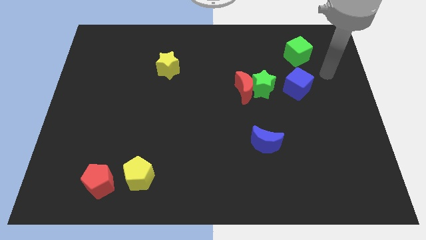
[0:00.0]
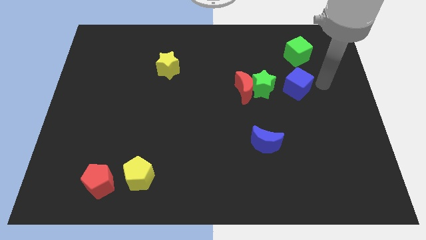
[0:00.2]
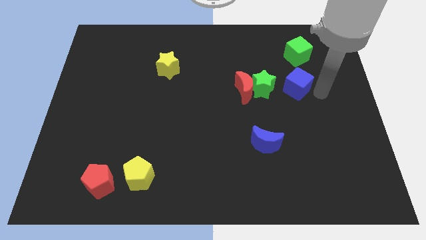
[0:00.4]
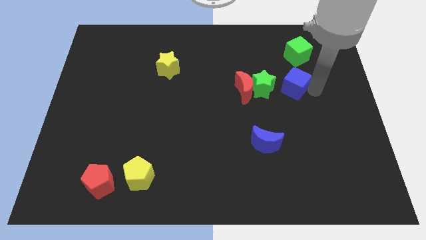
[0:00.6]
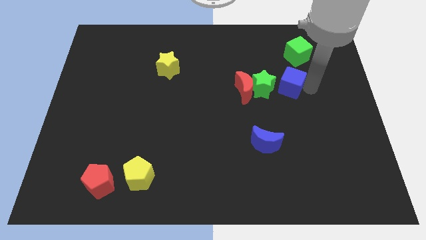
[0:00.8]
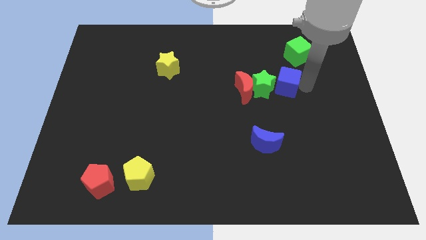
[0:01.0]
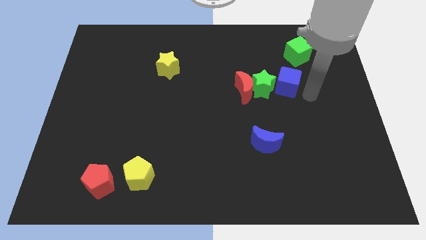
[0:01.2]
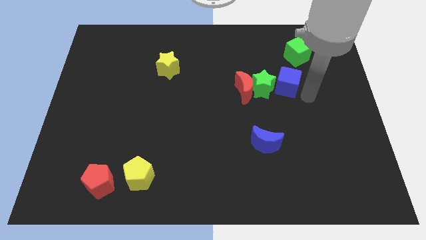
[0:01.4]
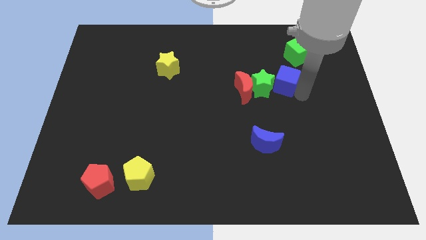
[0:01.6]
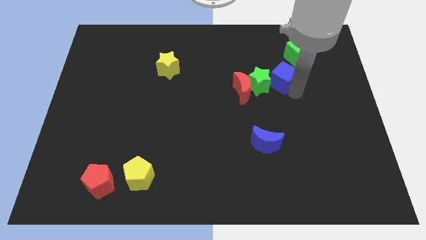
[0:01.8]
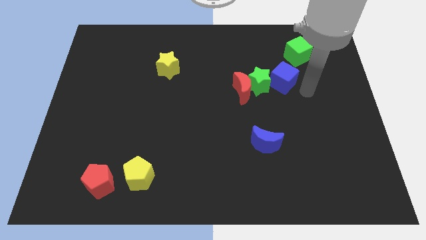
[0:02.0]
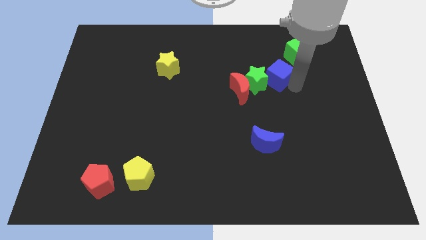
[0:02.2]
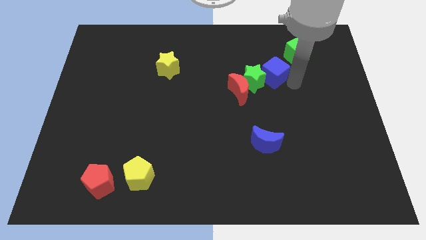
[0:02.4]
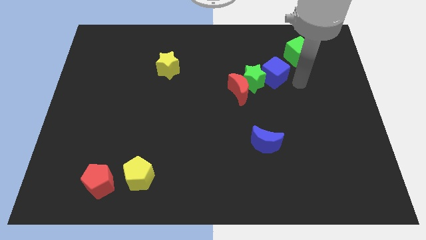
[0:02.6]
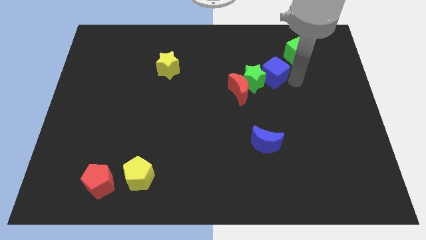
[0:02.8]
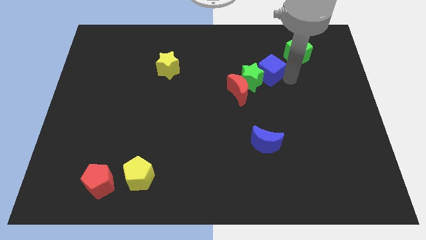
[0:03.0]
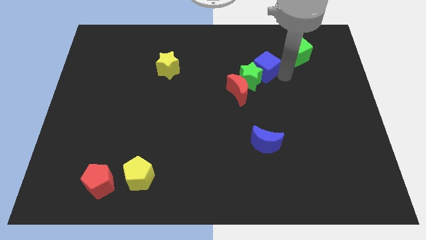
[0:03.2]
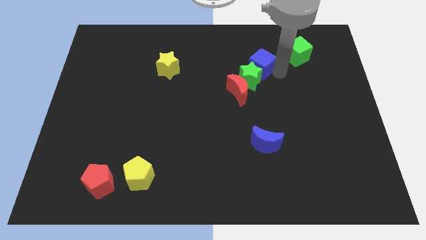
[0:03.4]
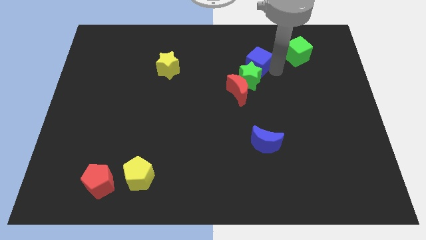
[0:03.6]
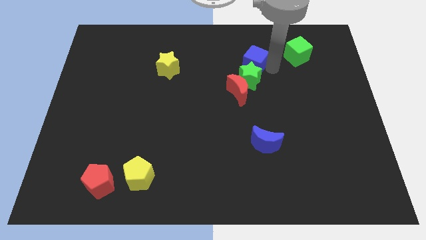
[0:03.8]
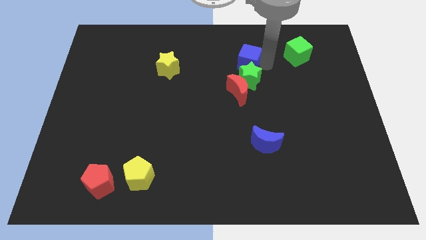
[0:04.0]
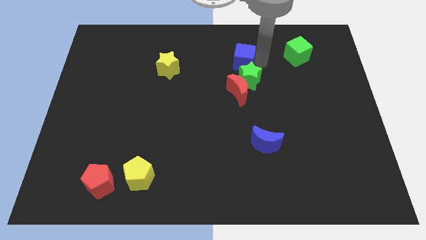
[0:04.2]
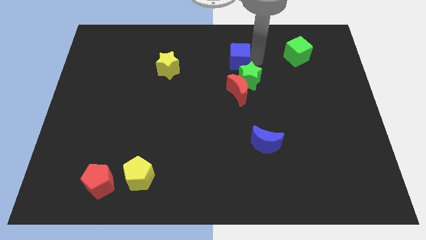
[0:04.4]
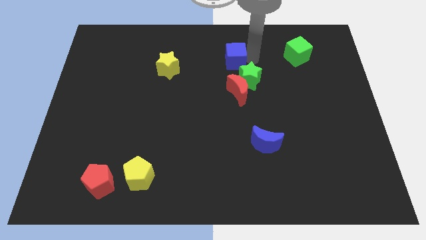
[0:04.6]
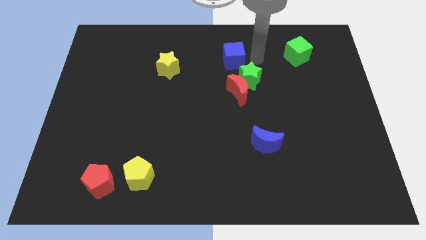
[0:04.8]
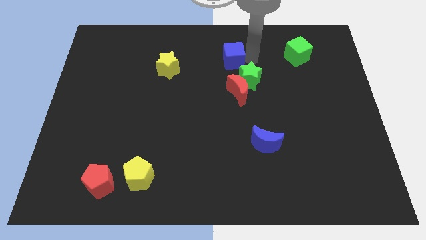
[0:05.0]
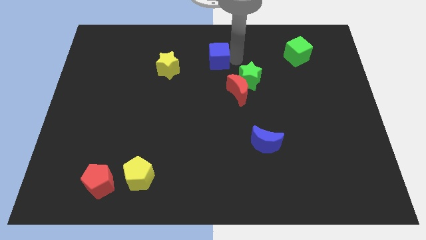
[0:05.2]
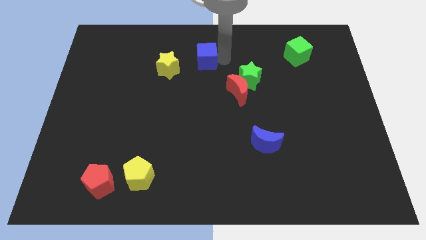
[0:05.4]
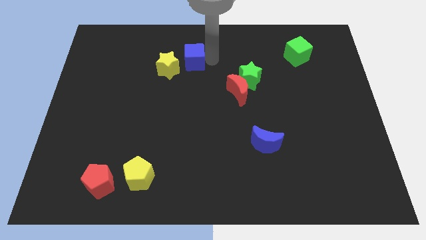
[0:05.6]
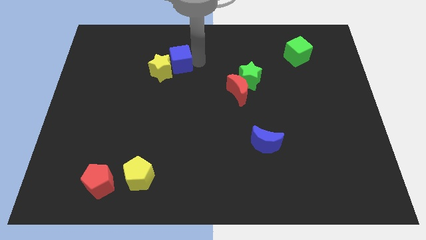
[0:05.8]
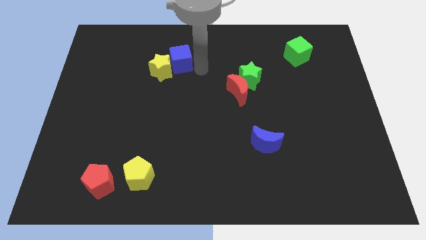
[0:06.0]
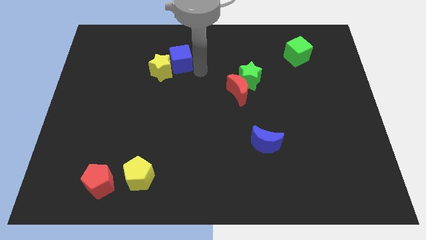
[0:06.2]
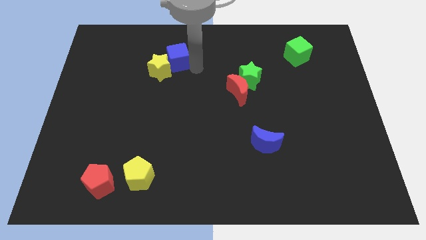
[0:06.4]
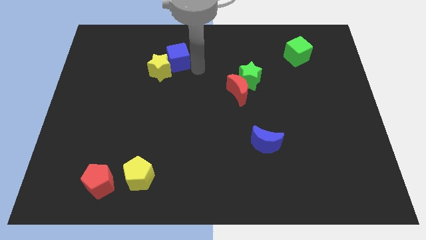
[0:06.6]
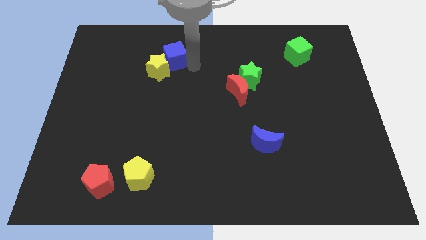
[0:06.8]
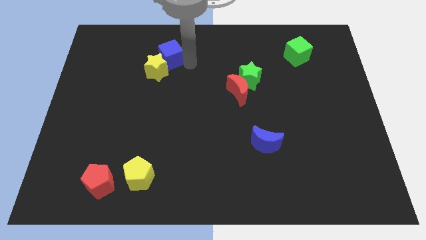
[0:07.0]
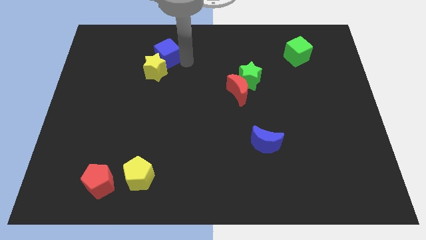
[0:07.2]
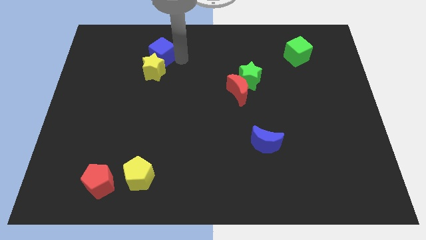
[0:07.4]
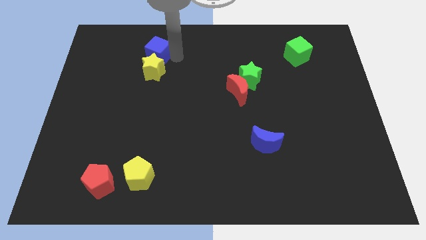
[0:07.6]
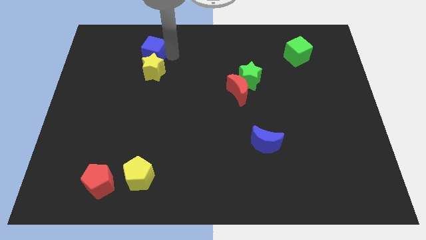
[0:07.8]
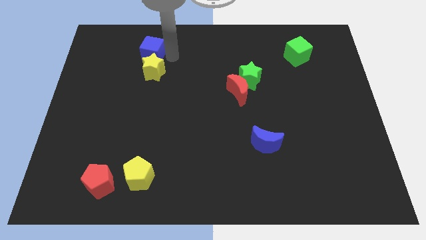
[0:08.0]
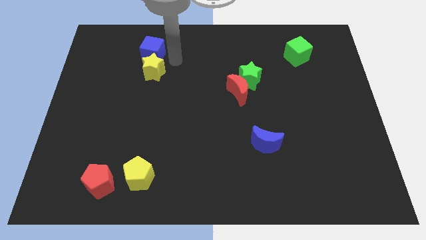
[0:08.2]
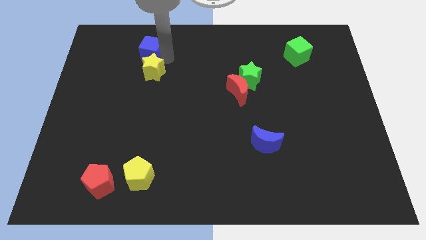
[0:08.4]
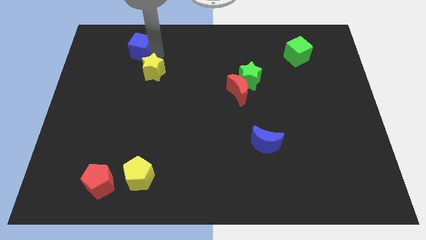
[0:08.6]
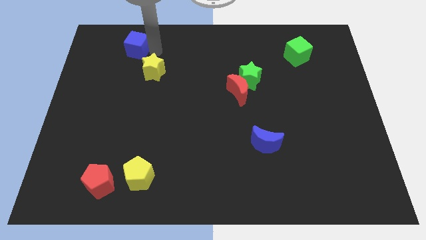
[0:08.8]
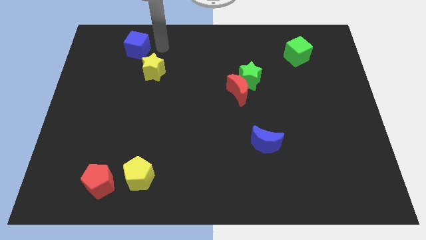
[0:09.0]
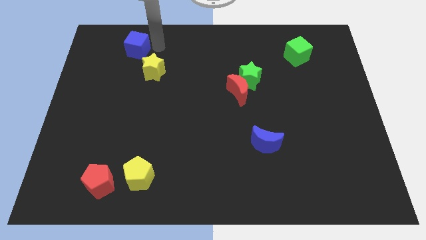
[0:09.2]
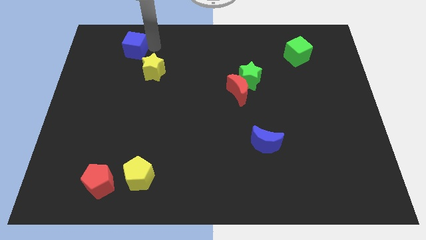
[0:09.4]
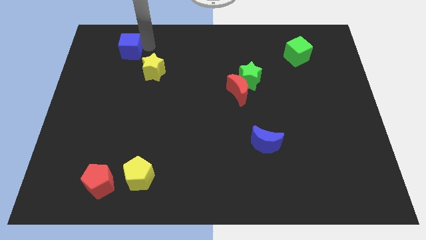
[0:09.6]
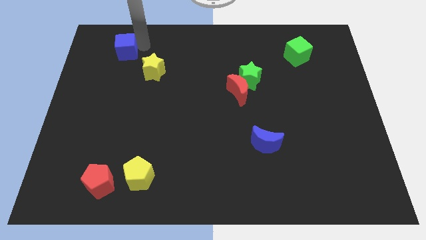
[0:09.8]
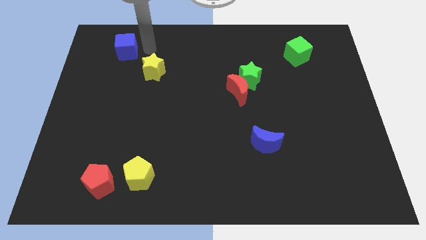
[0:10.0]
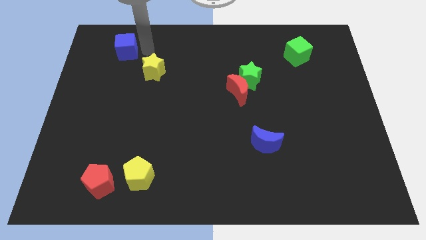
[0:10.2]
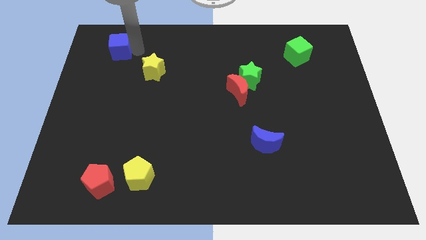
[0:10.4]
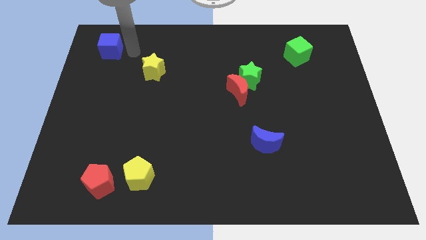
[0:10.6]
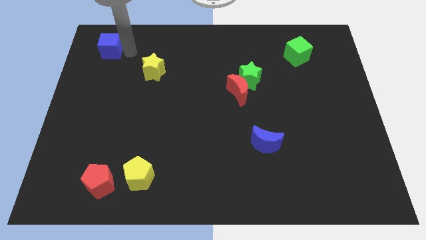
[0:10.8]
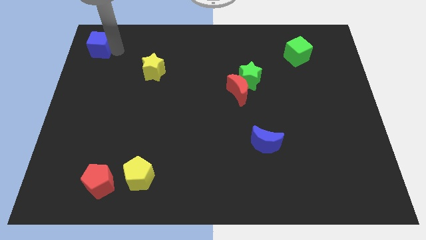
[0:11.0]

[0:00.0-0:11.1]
put the blue cube to the upper left corner
